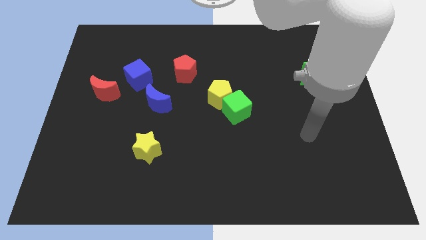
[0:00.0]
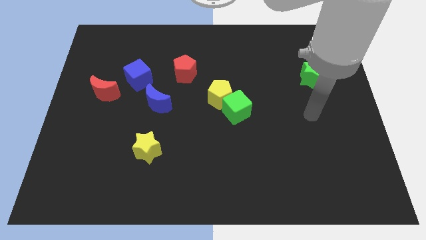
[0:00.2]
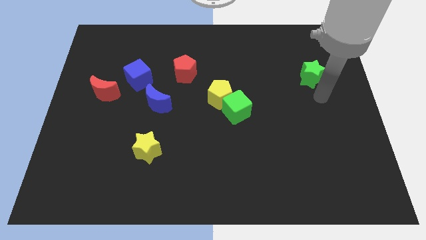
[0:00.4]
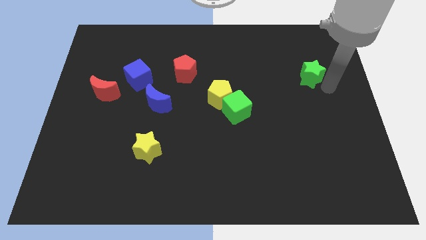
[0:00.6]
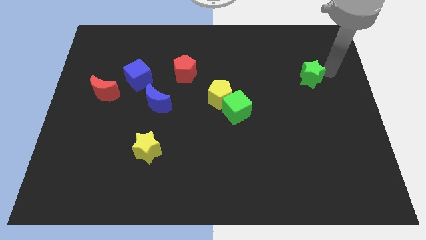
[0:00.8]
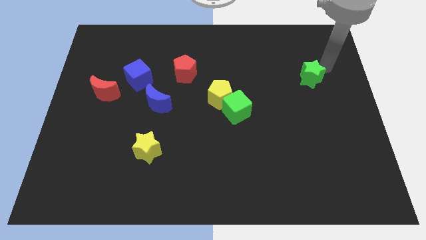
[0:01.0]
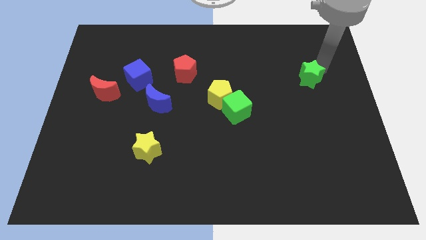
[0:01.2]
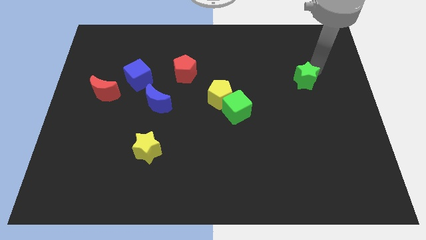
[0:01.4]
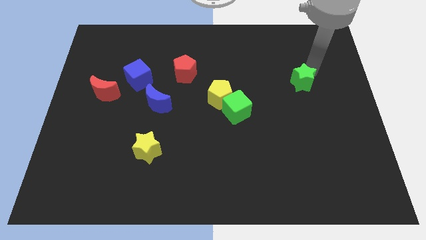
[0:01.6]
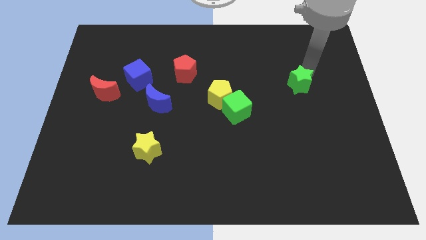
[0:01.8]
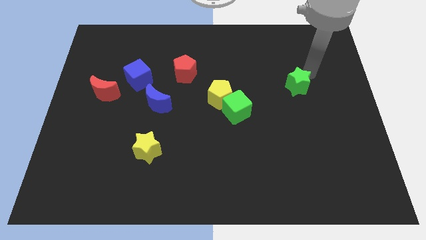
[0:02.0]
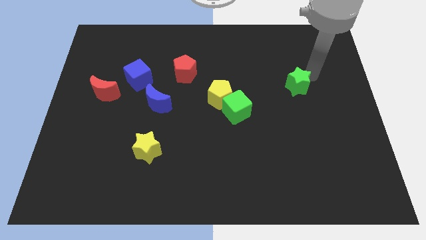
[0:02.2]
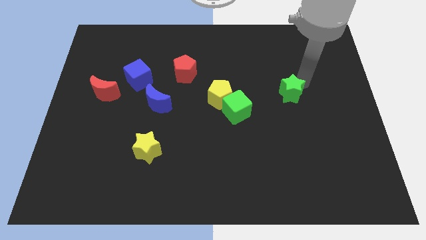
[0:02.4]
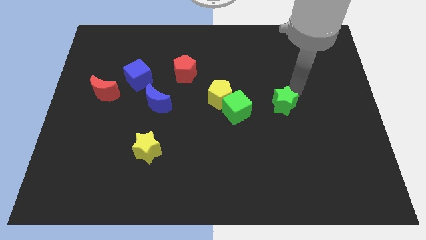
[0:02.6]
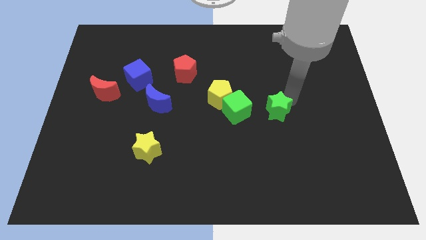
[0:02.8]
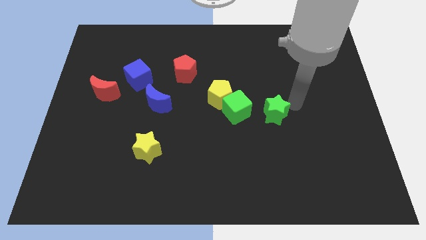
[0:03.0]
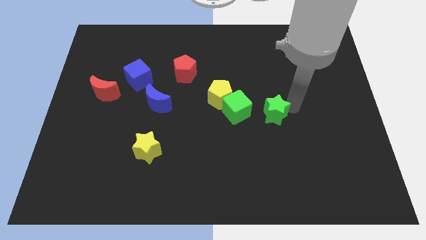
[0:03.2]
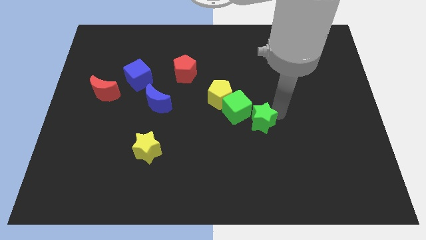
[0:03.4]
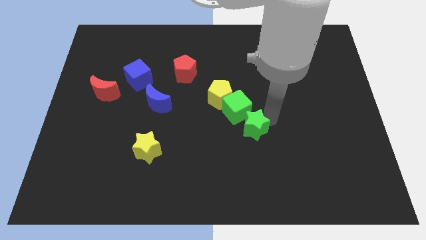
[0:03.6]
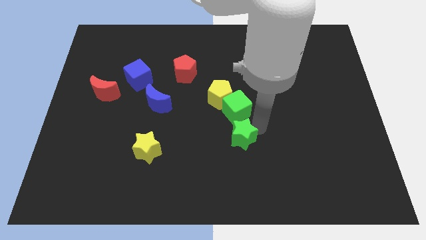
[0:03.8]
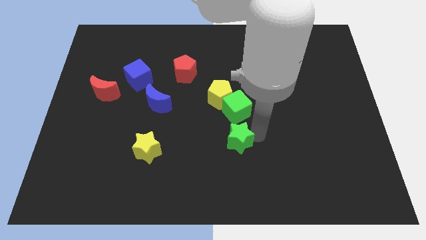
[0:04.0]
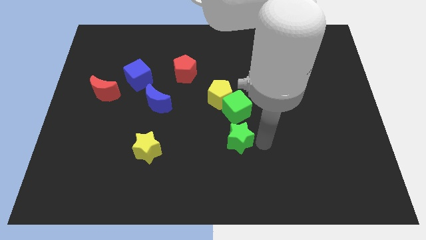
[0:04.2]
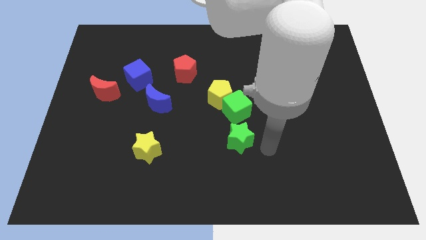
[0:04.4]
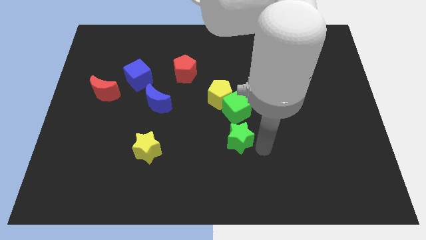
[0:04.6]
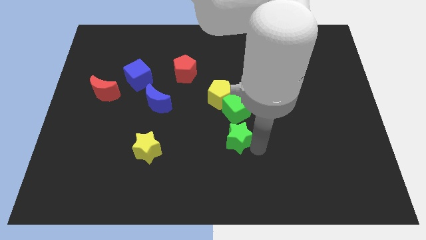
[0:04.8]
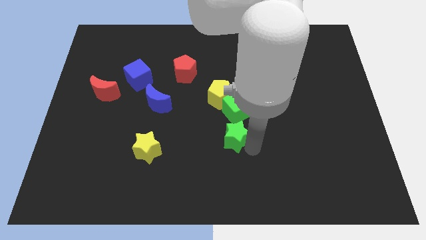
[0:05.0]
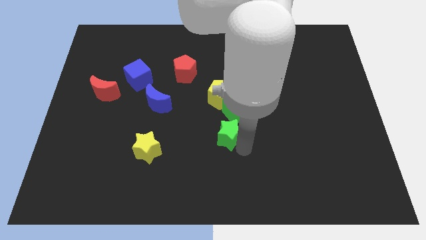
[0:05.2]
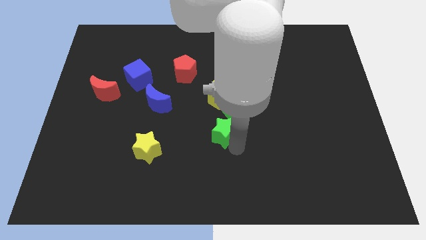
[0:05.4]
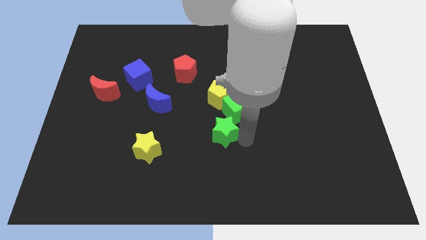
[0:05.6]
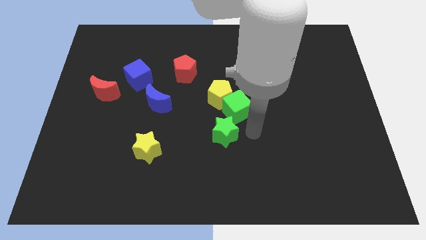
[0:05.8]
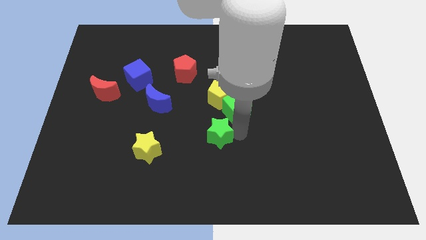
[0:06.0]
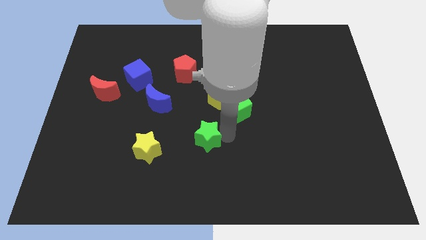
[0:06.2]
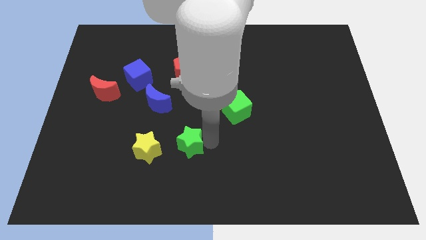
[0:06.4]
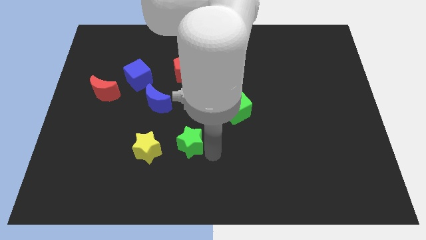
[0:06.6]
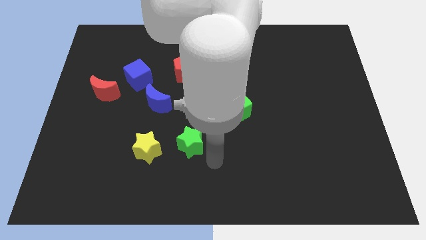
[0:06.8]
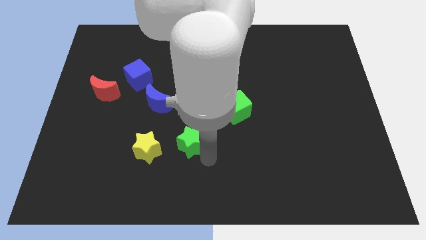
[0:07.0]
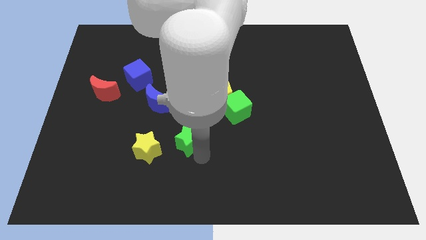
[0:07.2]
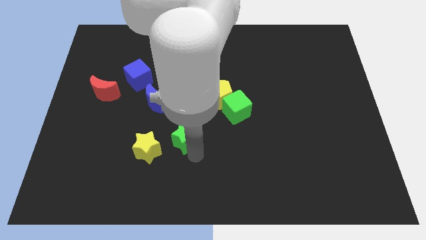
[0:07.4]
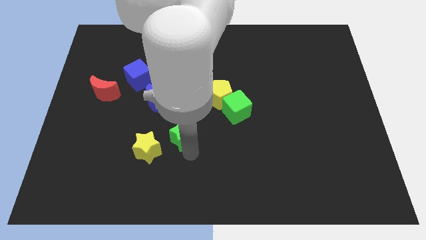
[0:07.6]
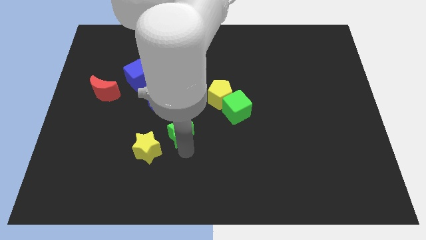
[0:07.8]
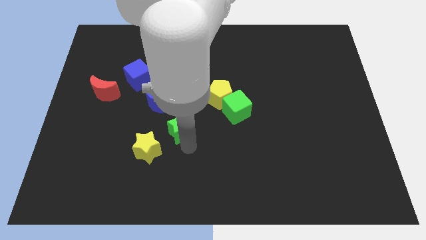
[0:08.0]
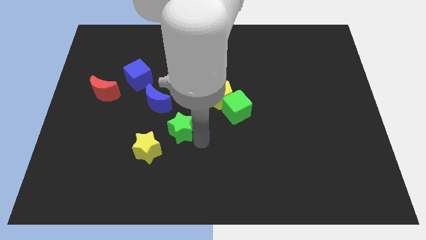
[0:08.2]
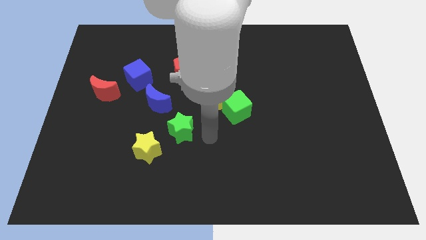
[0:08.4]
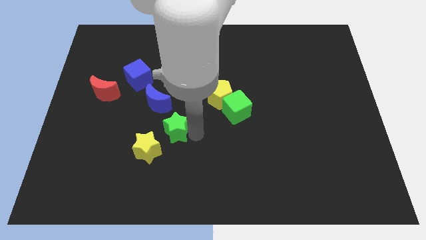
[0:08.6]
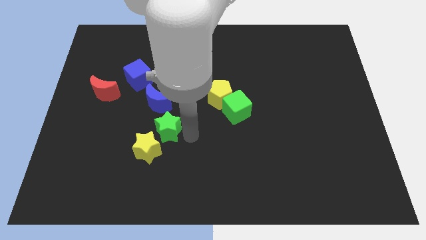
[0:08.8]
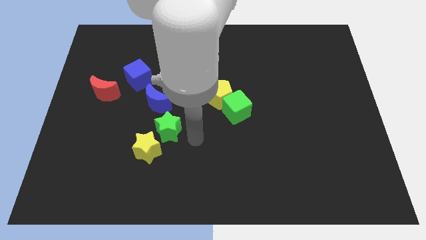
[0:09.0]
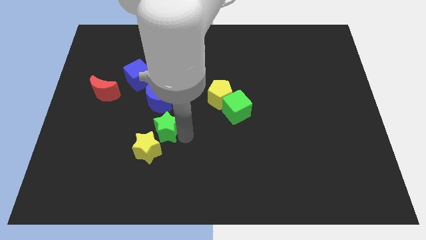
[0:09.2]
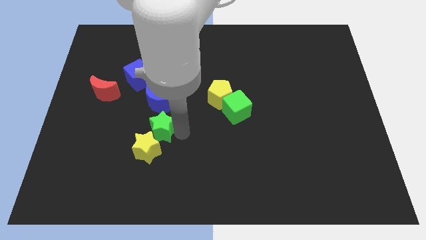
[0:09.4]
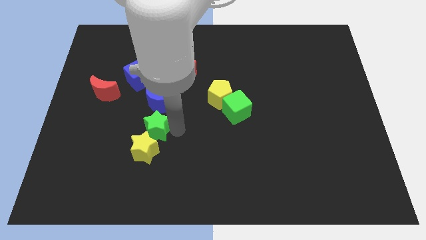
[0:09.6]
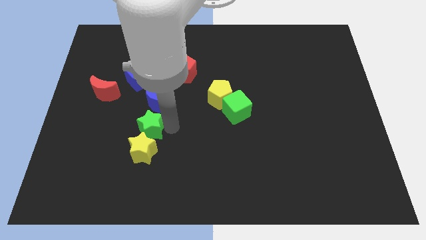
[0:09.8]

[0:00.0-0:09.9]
push the green star to the bottom left of the blue moon

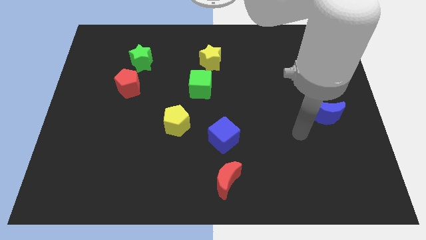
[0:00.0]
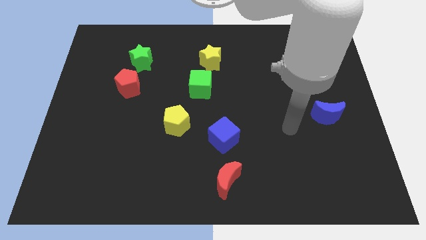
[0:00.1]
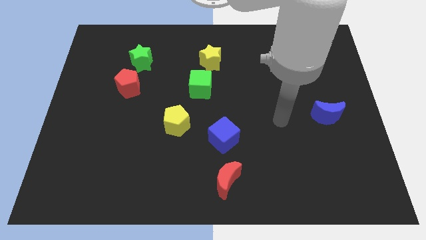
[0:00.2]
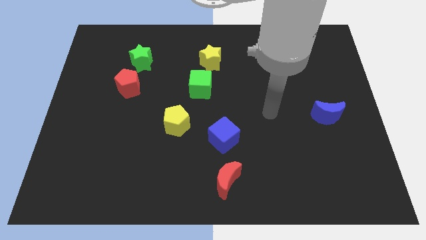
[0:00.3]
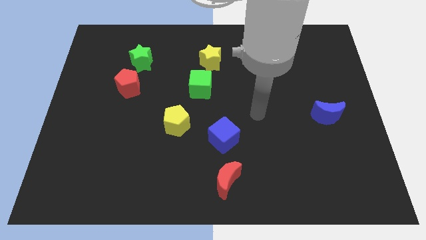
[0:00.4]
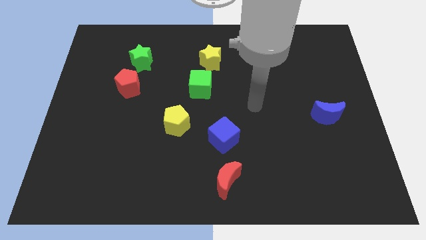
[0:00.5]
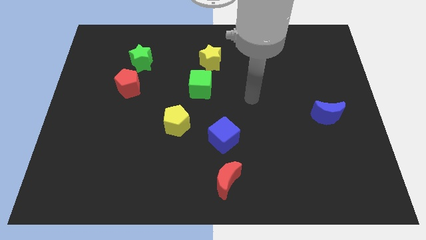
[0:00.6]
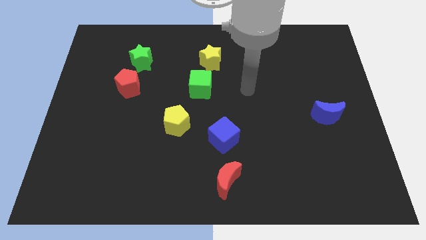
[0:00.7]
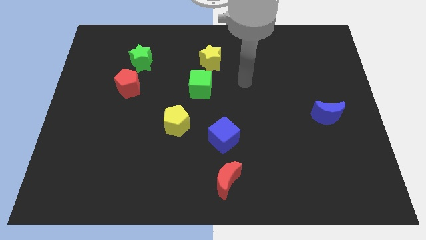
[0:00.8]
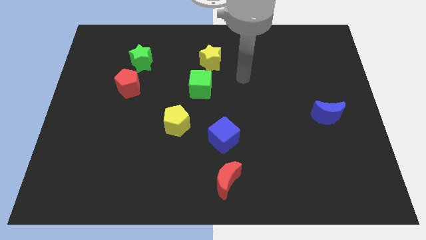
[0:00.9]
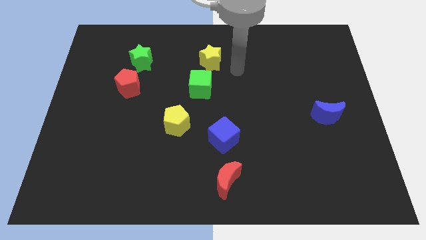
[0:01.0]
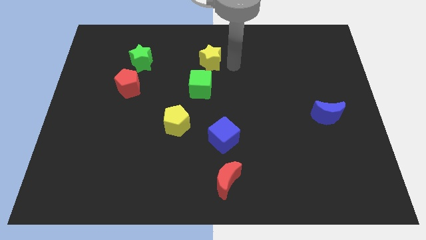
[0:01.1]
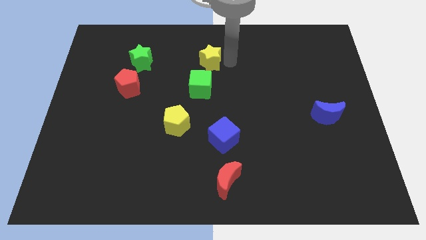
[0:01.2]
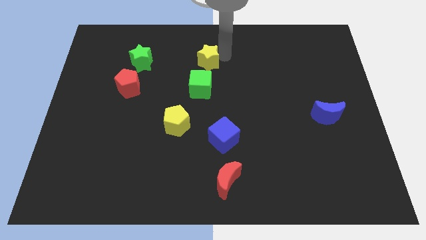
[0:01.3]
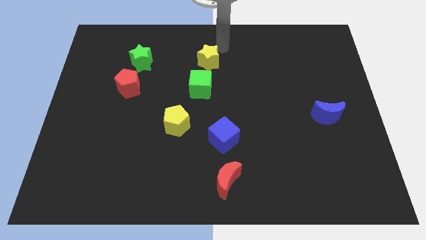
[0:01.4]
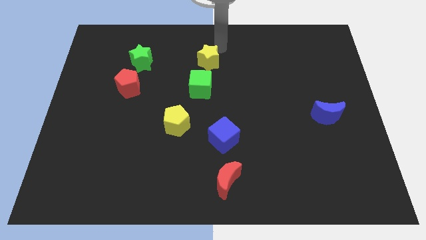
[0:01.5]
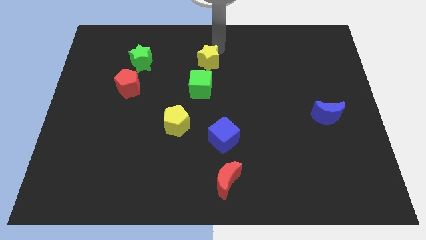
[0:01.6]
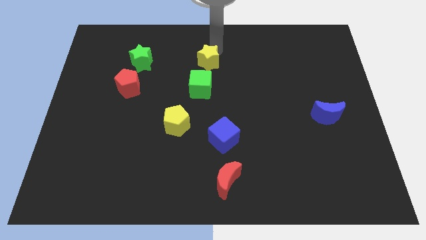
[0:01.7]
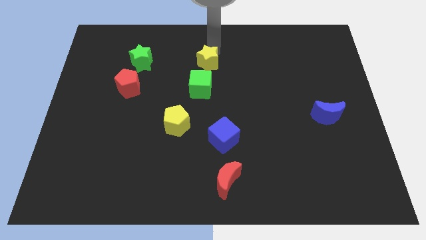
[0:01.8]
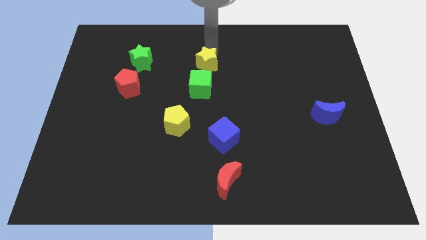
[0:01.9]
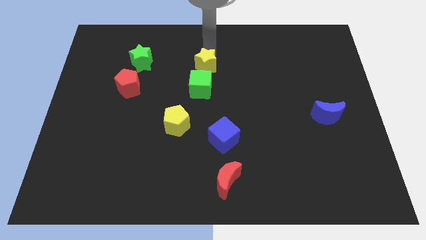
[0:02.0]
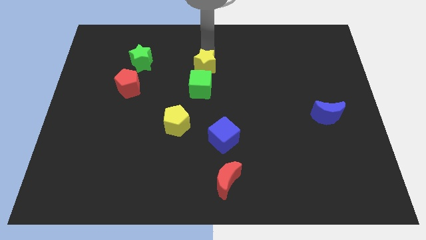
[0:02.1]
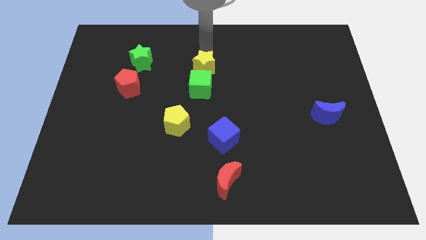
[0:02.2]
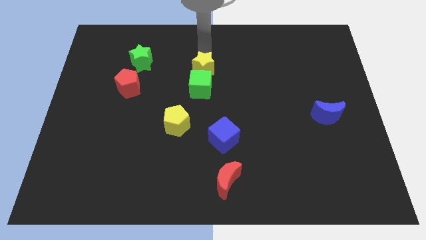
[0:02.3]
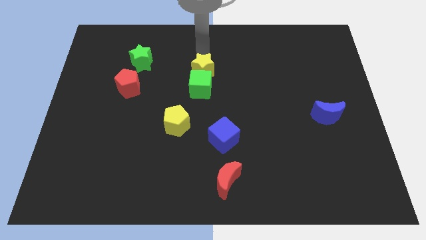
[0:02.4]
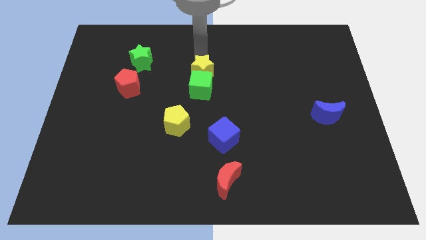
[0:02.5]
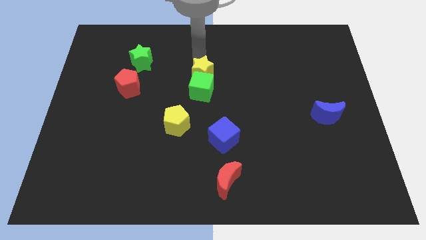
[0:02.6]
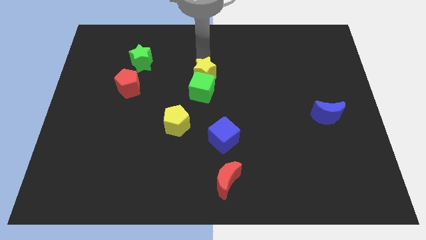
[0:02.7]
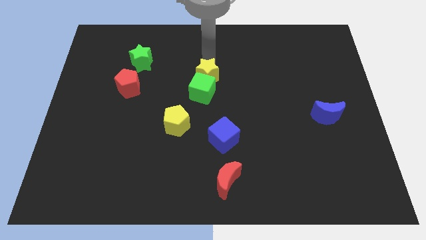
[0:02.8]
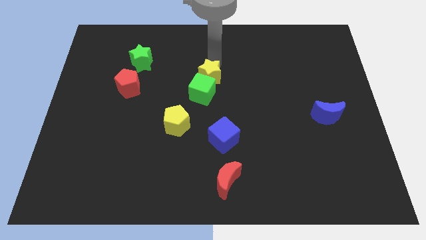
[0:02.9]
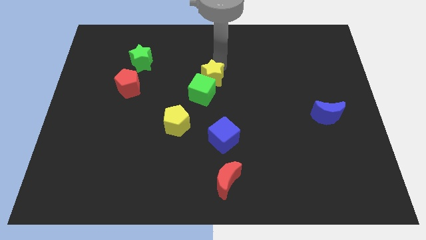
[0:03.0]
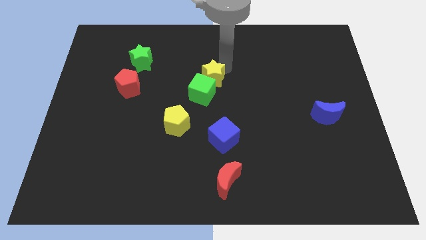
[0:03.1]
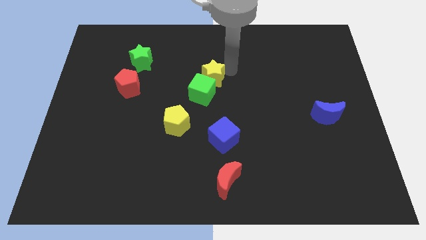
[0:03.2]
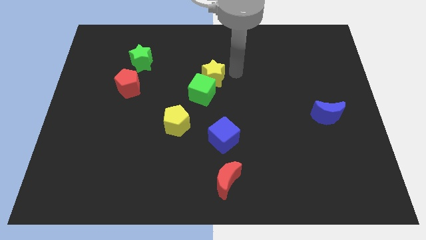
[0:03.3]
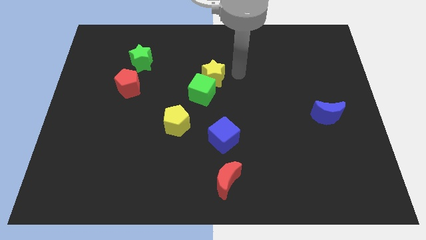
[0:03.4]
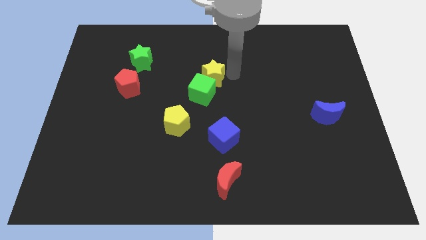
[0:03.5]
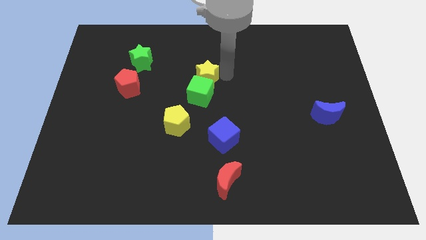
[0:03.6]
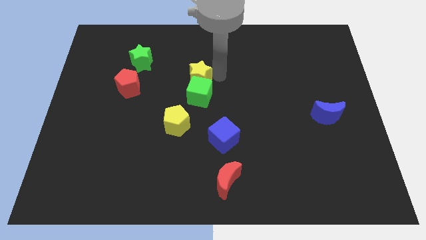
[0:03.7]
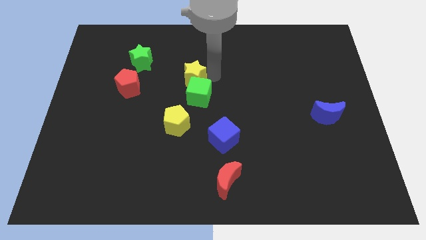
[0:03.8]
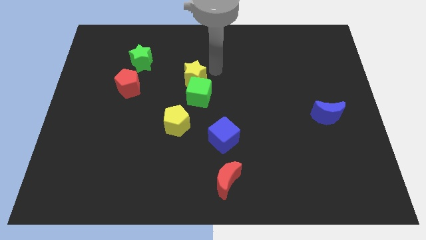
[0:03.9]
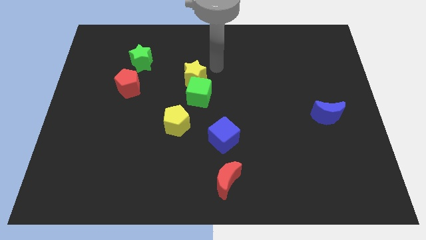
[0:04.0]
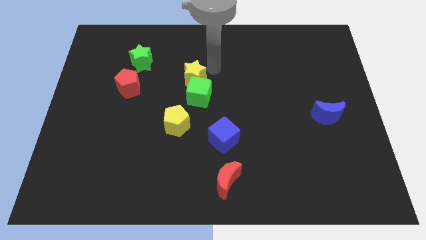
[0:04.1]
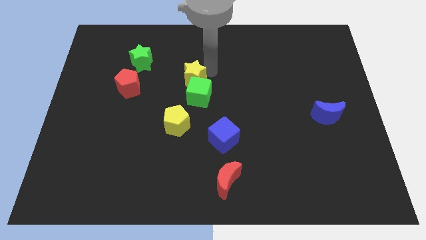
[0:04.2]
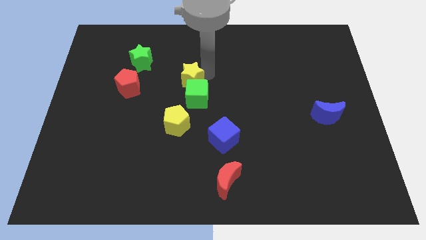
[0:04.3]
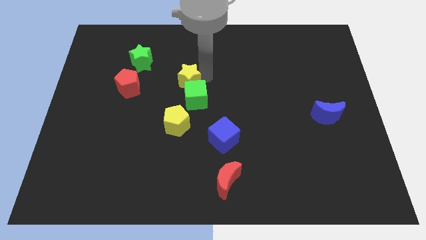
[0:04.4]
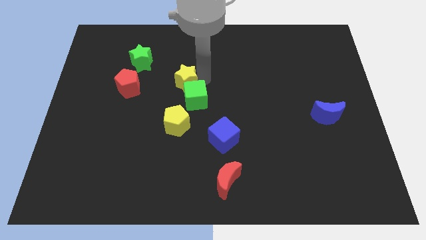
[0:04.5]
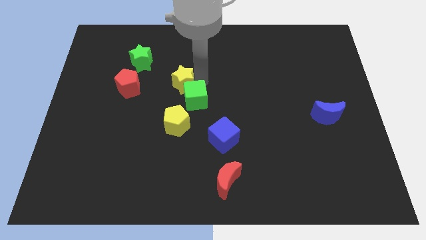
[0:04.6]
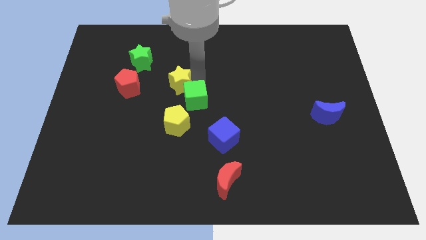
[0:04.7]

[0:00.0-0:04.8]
slide the yellow star left of the green cube
